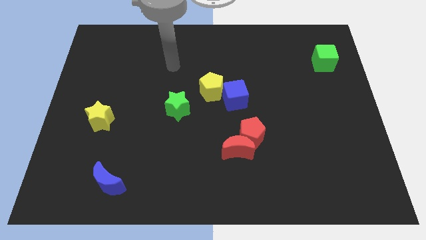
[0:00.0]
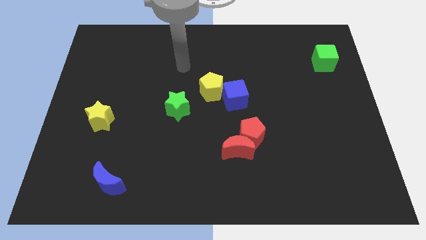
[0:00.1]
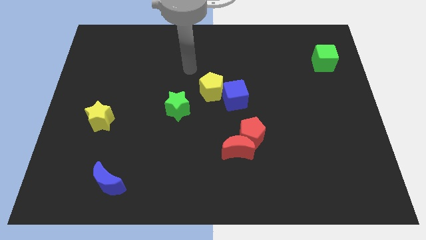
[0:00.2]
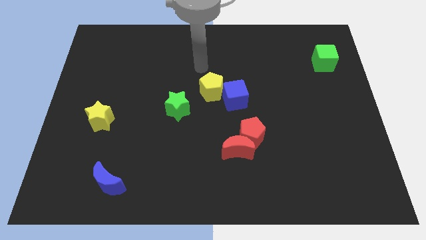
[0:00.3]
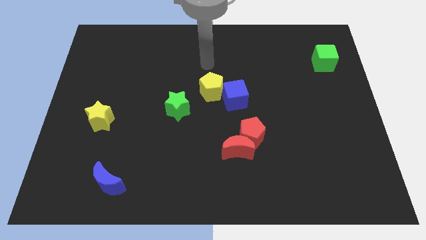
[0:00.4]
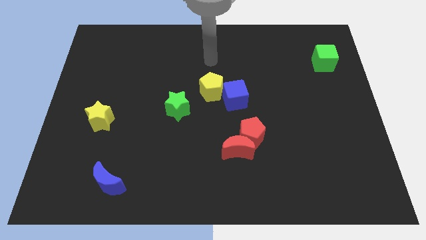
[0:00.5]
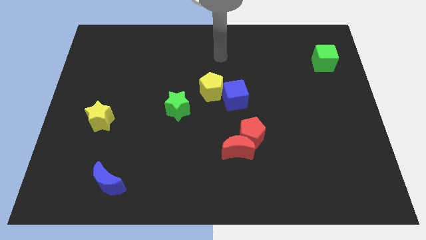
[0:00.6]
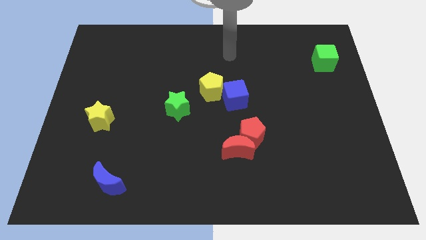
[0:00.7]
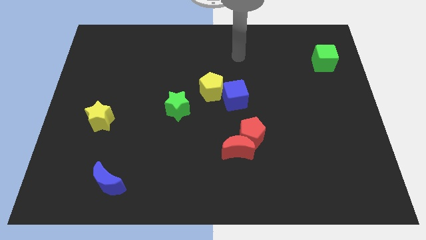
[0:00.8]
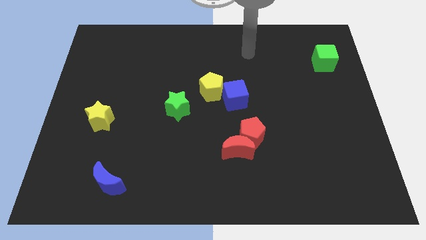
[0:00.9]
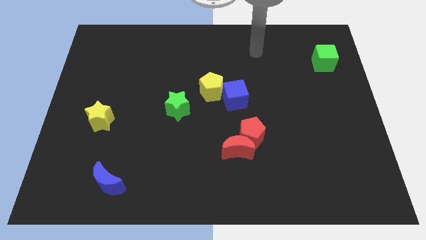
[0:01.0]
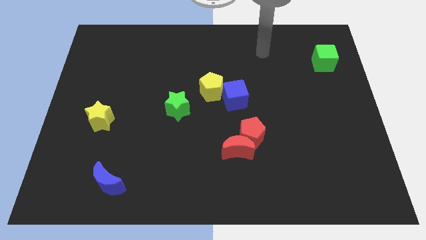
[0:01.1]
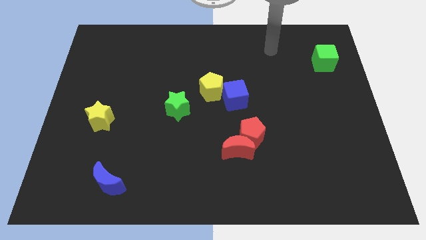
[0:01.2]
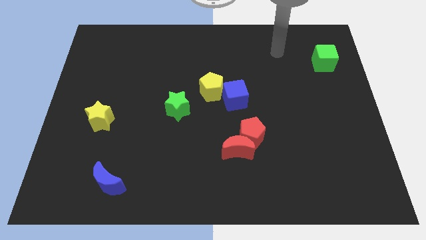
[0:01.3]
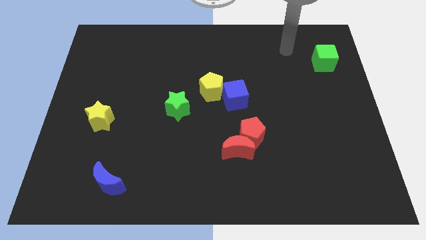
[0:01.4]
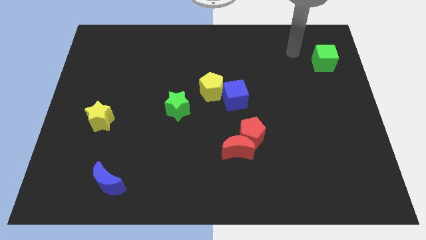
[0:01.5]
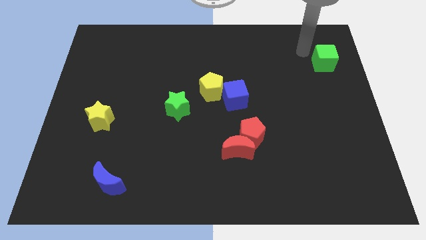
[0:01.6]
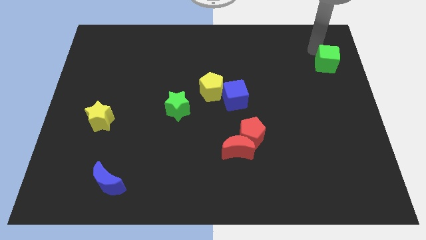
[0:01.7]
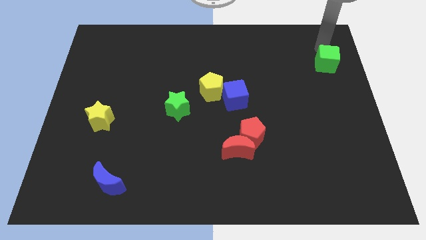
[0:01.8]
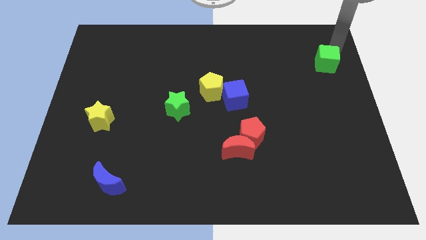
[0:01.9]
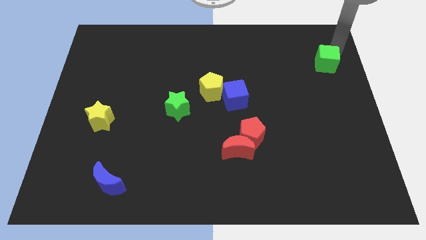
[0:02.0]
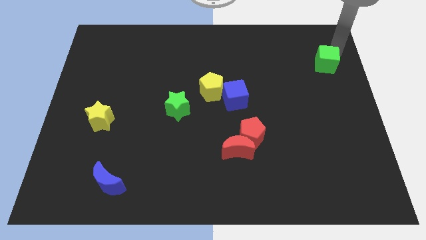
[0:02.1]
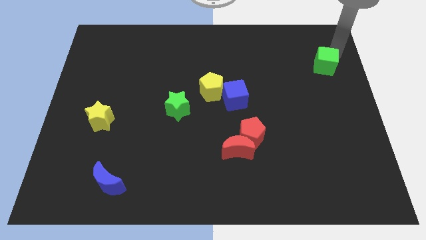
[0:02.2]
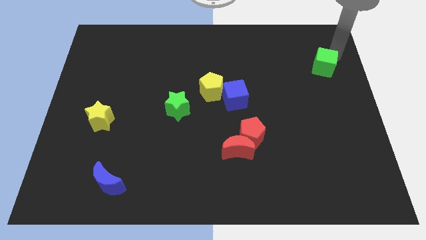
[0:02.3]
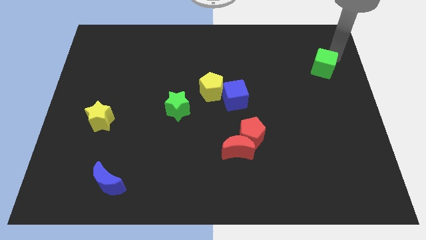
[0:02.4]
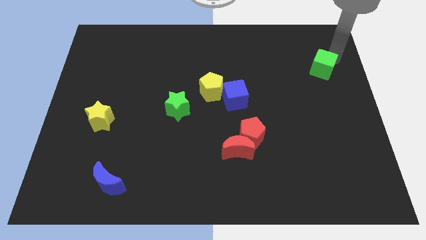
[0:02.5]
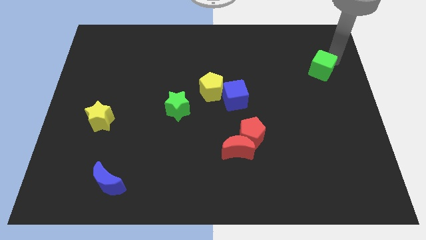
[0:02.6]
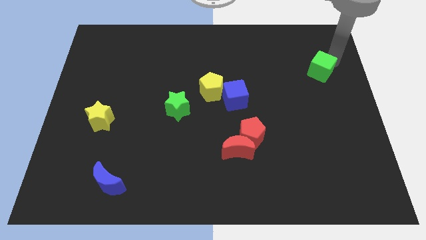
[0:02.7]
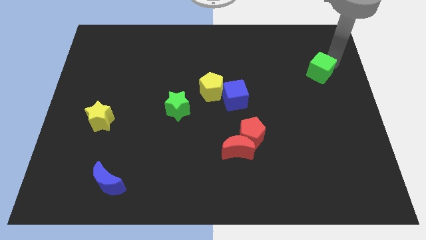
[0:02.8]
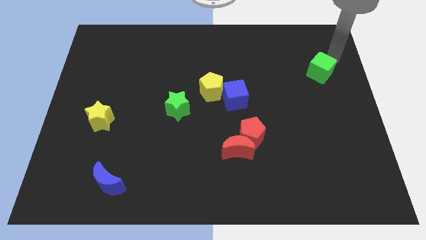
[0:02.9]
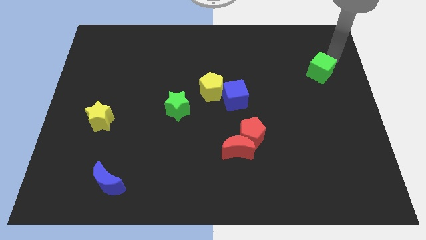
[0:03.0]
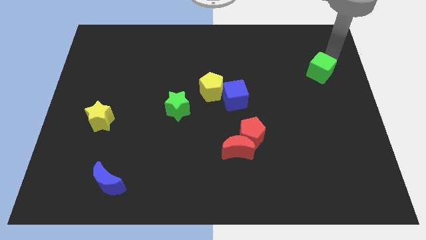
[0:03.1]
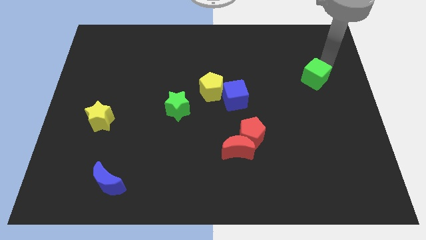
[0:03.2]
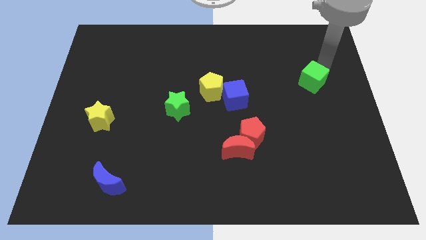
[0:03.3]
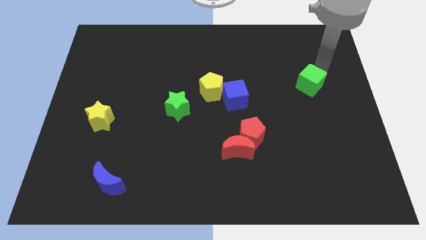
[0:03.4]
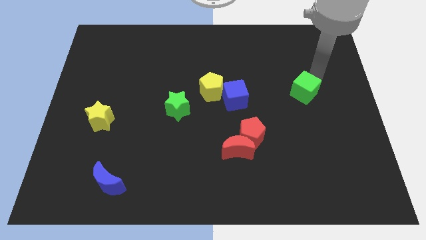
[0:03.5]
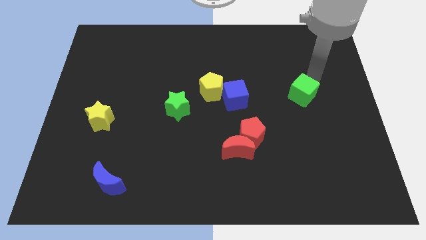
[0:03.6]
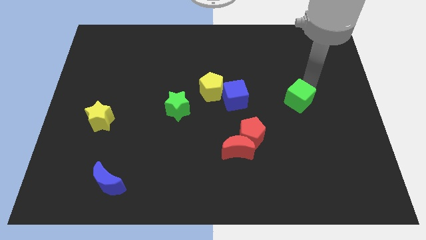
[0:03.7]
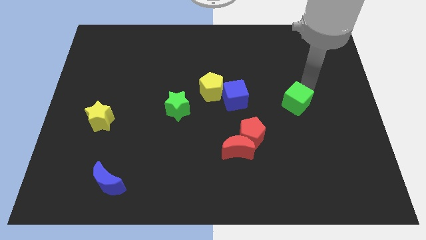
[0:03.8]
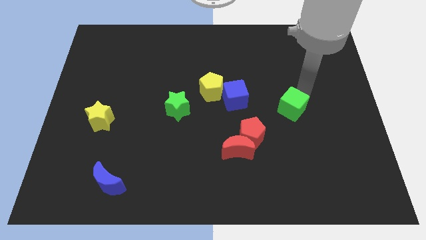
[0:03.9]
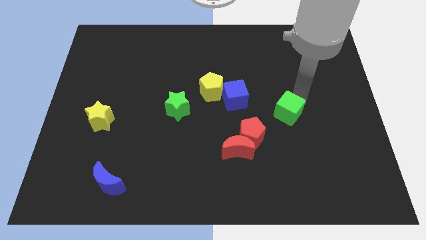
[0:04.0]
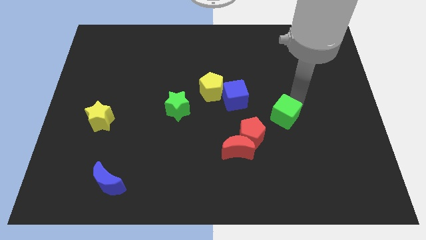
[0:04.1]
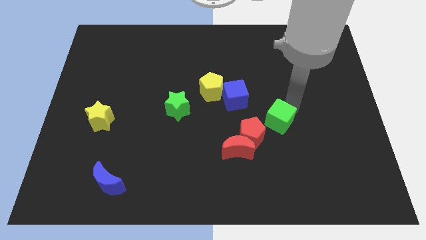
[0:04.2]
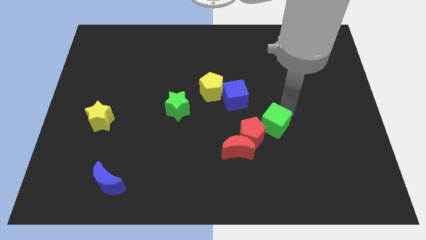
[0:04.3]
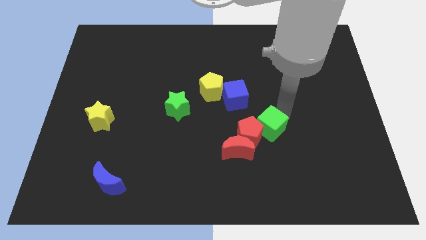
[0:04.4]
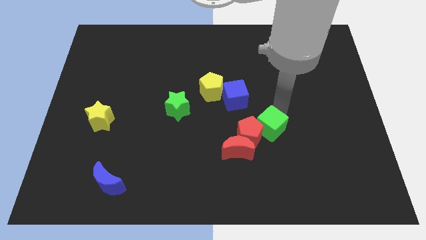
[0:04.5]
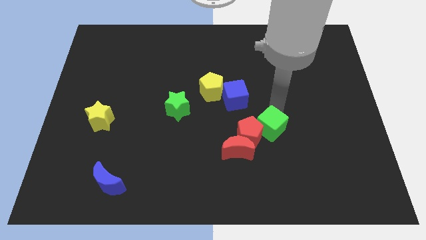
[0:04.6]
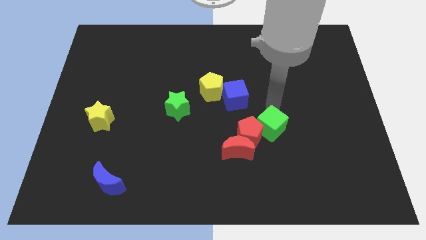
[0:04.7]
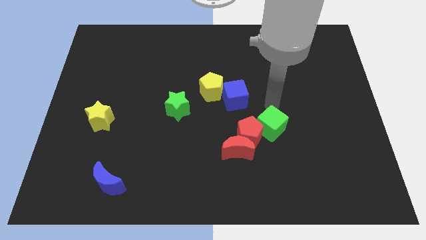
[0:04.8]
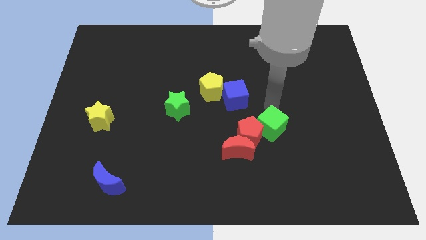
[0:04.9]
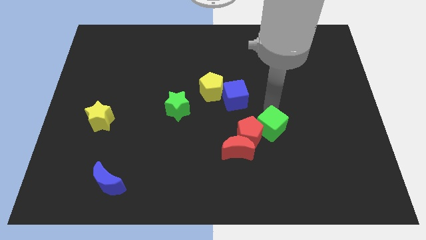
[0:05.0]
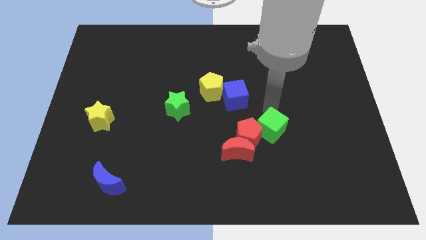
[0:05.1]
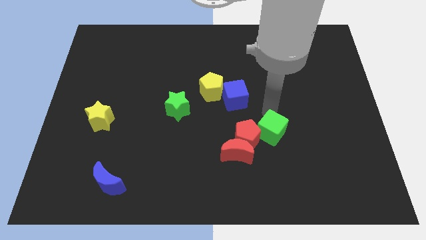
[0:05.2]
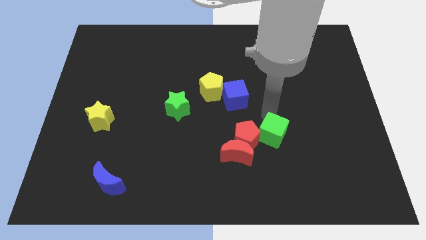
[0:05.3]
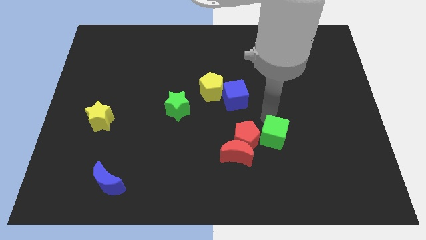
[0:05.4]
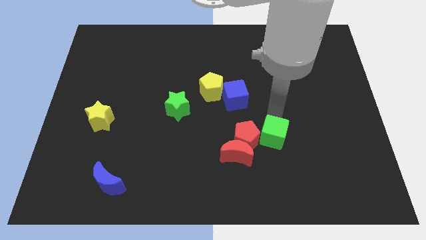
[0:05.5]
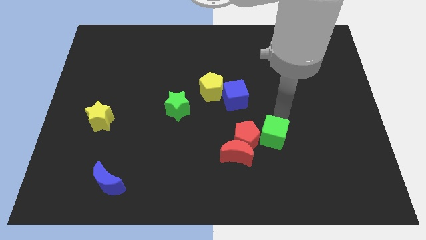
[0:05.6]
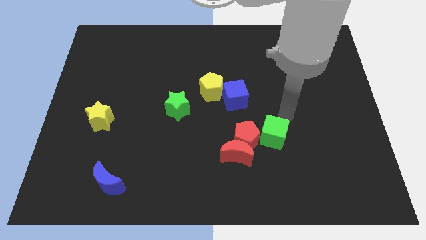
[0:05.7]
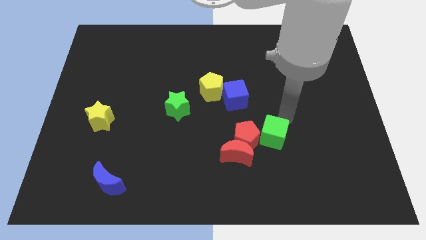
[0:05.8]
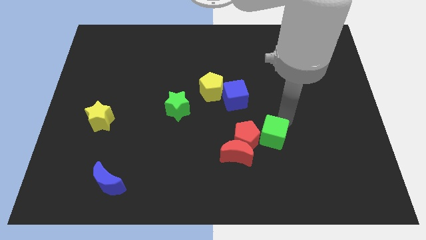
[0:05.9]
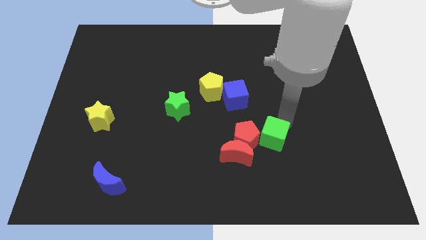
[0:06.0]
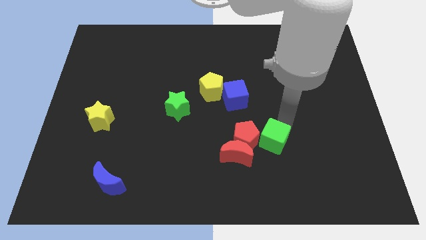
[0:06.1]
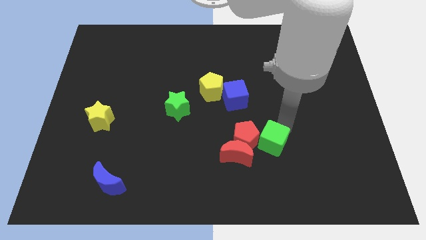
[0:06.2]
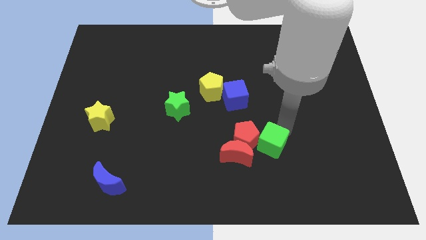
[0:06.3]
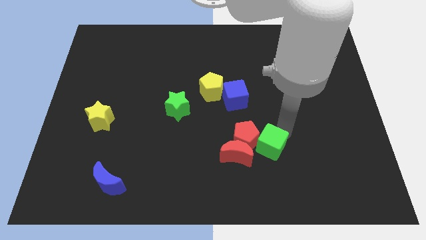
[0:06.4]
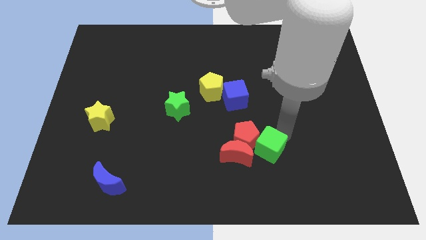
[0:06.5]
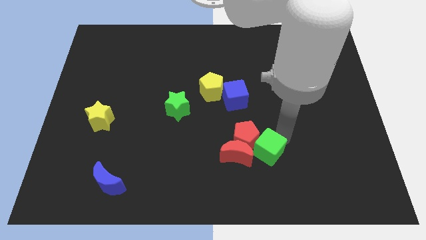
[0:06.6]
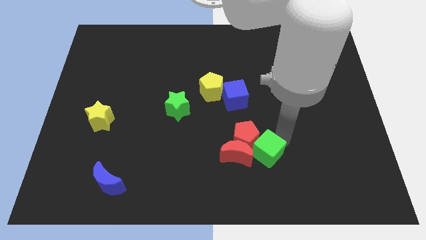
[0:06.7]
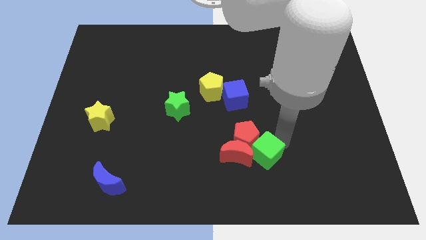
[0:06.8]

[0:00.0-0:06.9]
push the green cube next to the red moon
